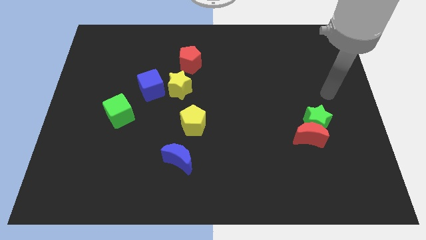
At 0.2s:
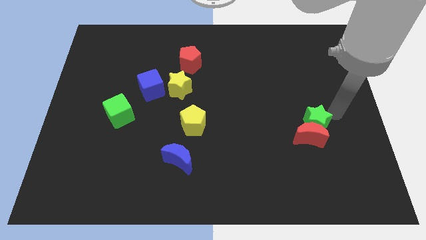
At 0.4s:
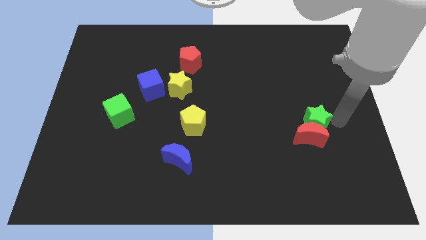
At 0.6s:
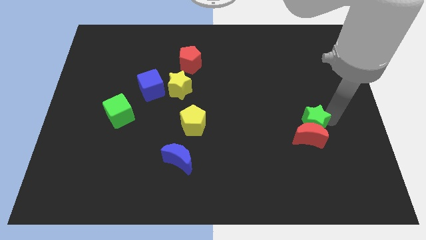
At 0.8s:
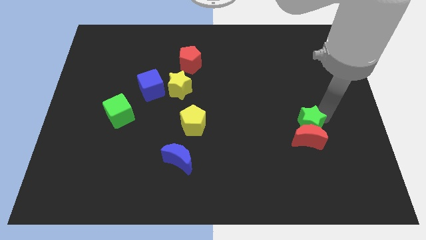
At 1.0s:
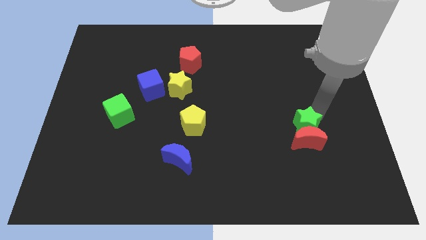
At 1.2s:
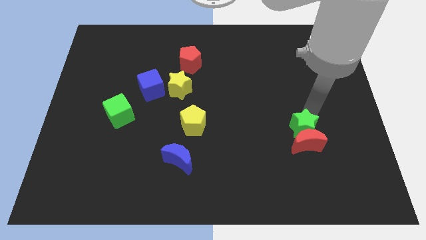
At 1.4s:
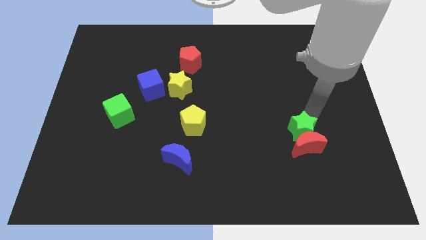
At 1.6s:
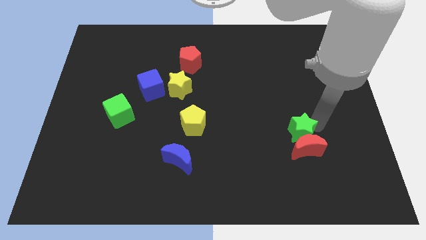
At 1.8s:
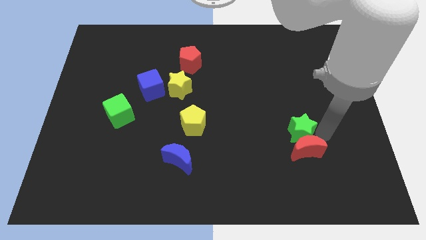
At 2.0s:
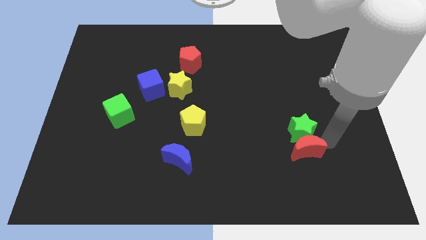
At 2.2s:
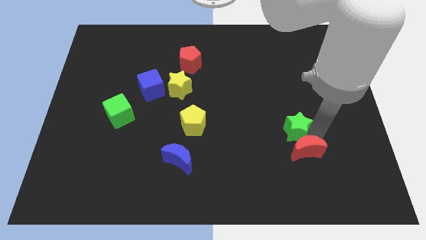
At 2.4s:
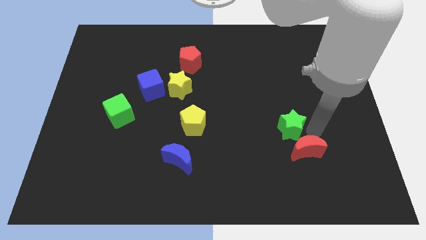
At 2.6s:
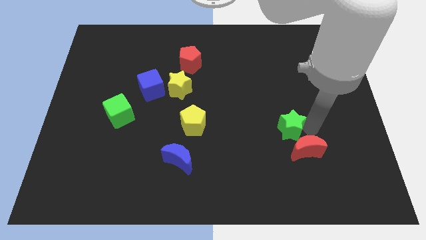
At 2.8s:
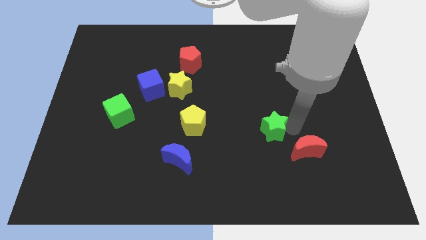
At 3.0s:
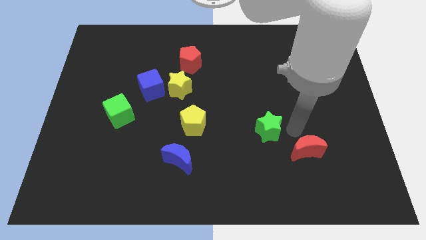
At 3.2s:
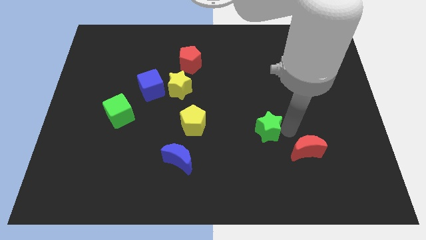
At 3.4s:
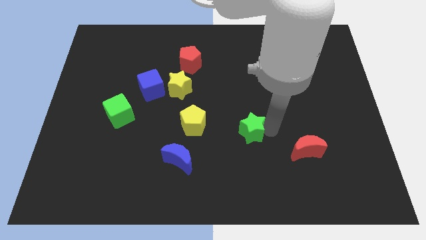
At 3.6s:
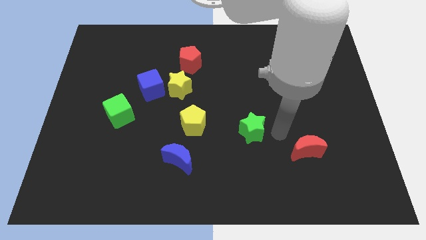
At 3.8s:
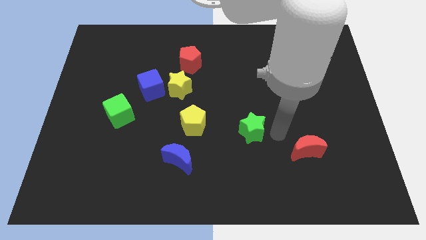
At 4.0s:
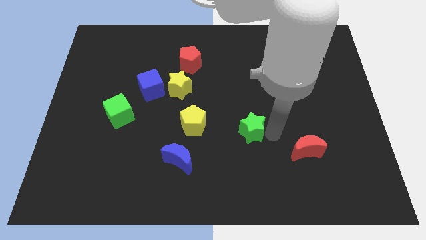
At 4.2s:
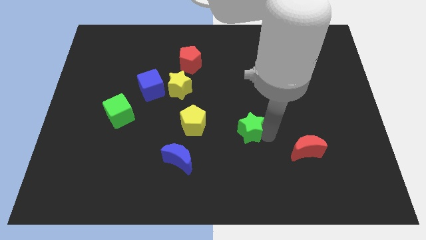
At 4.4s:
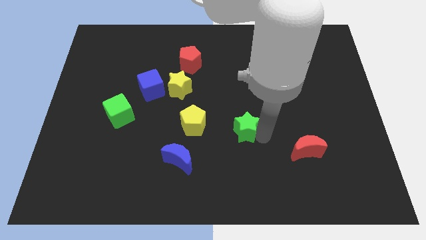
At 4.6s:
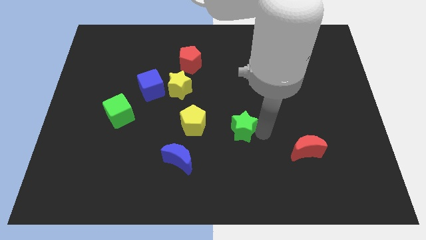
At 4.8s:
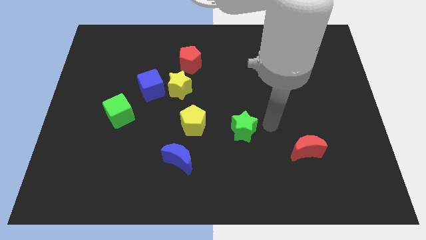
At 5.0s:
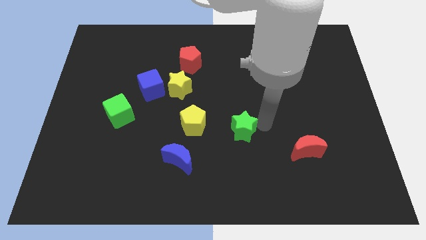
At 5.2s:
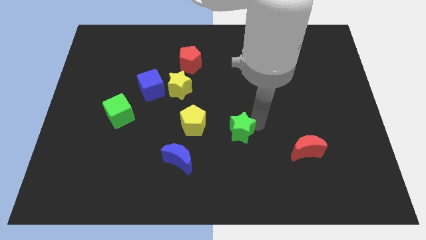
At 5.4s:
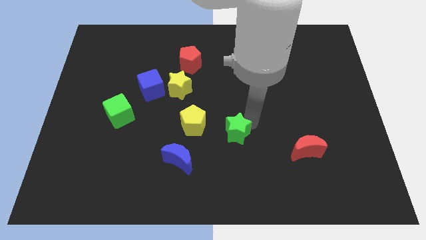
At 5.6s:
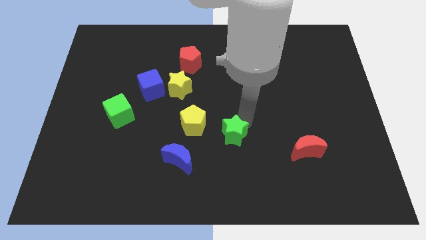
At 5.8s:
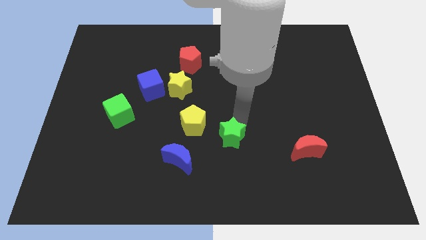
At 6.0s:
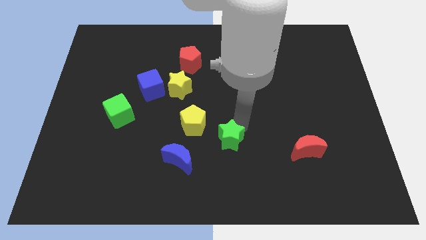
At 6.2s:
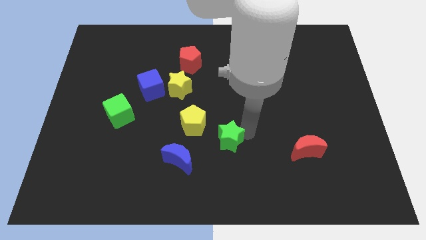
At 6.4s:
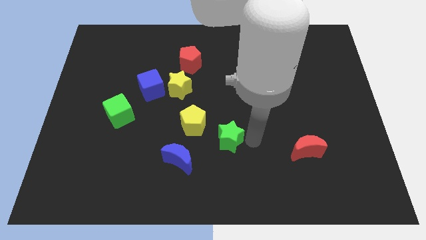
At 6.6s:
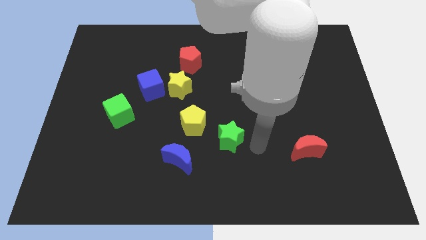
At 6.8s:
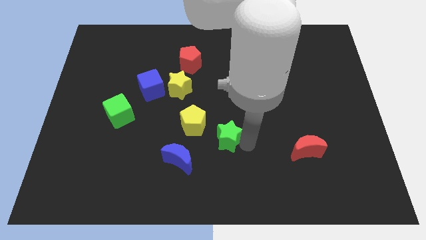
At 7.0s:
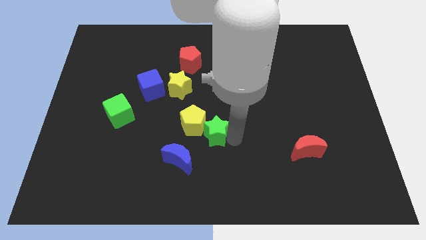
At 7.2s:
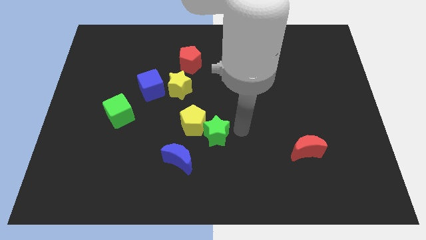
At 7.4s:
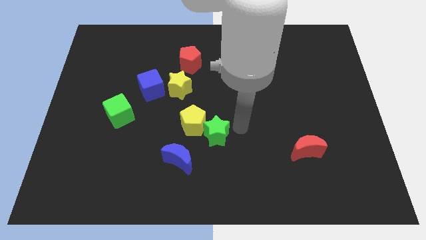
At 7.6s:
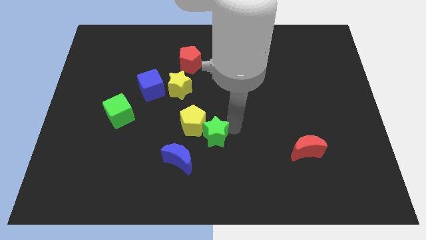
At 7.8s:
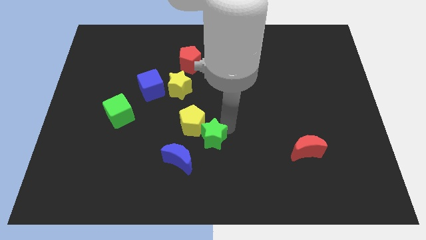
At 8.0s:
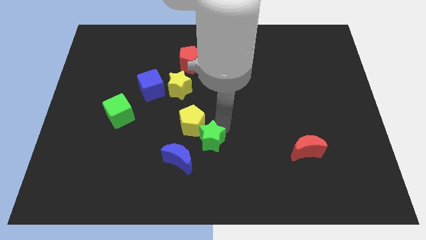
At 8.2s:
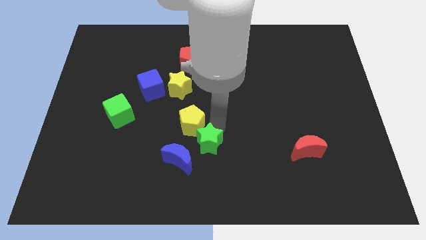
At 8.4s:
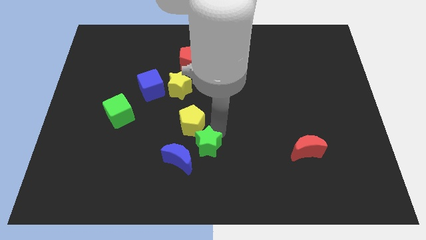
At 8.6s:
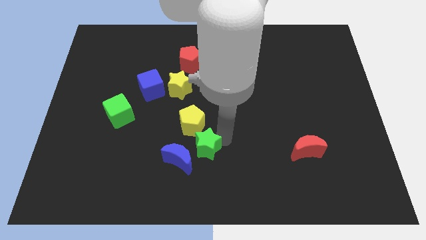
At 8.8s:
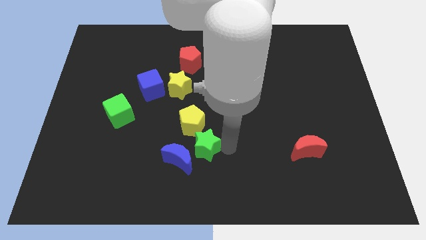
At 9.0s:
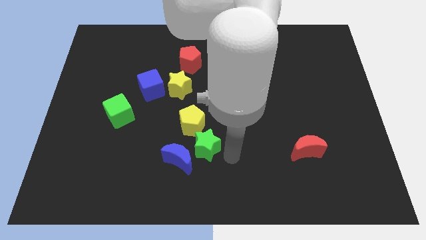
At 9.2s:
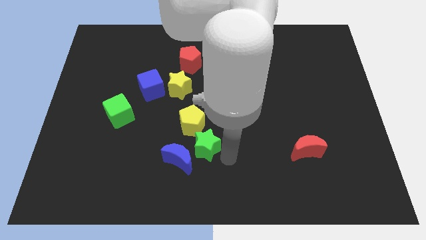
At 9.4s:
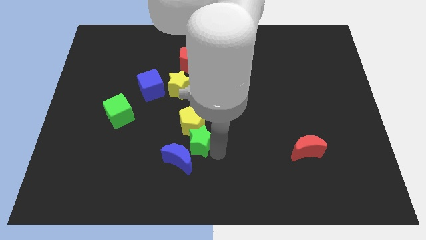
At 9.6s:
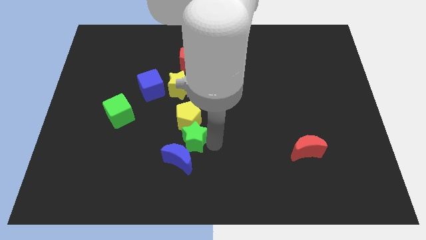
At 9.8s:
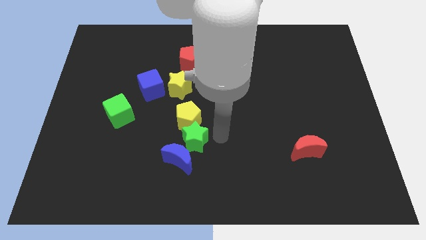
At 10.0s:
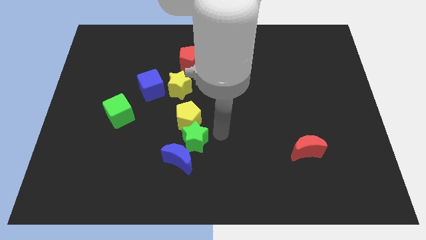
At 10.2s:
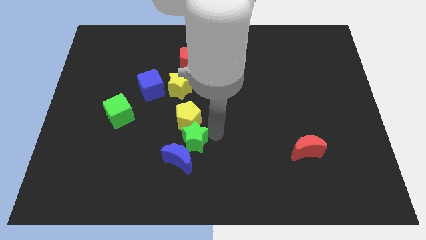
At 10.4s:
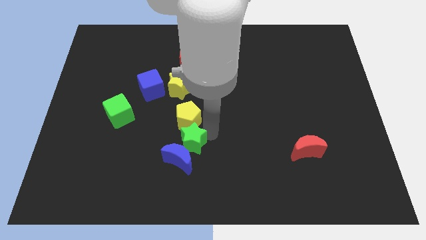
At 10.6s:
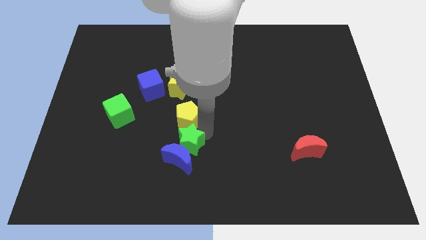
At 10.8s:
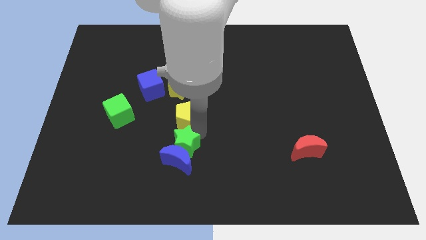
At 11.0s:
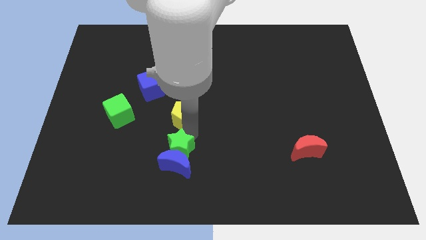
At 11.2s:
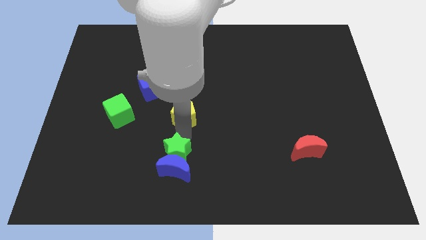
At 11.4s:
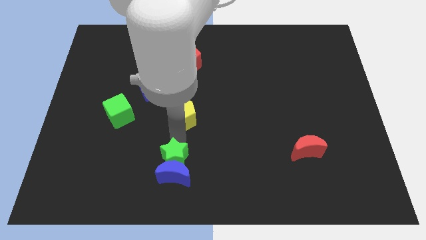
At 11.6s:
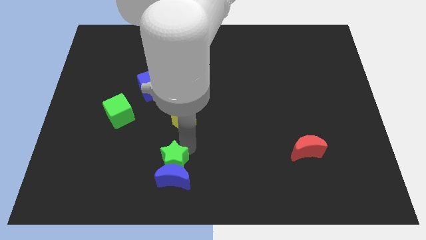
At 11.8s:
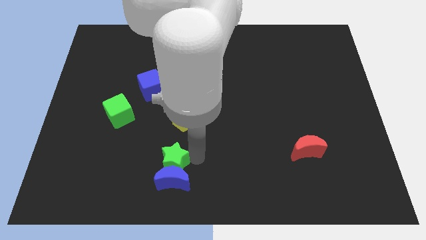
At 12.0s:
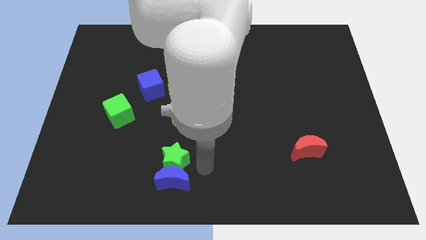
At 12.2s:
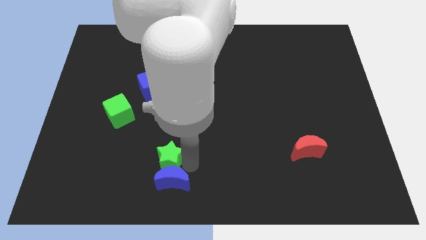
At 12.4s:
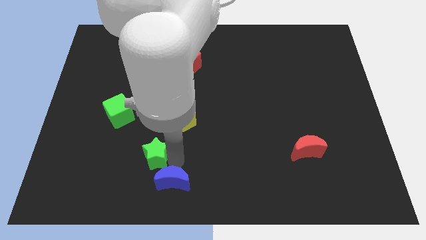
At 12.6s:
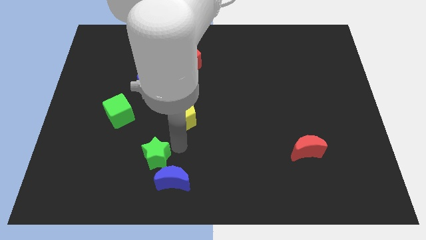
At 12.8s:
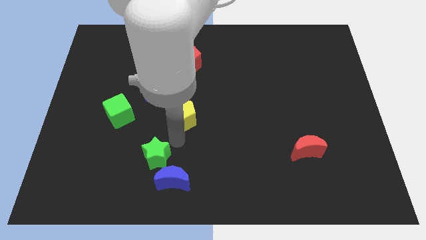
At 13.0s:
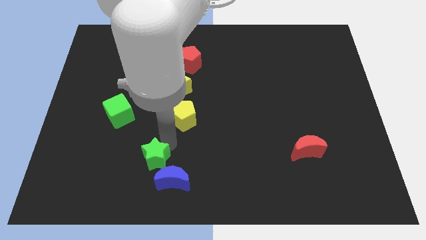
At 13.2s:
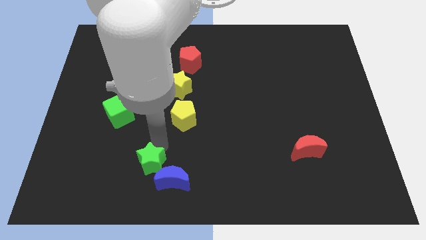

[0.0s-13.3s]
push the green star left of the blue moon

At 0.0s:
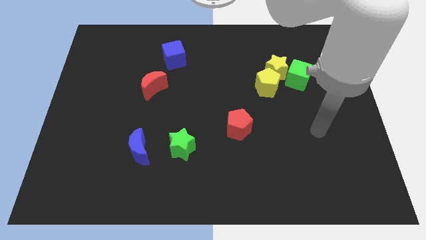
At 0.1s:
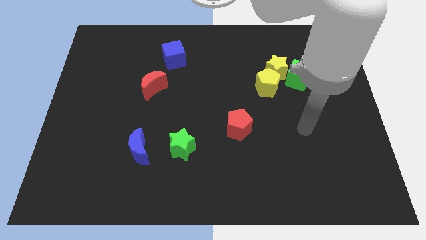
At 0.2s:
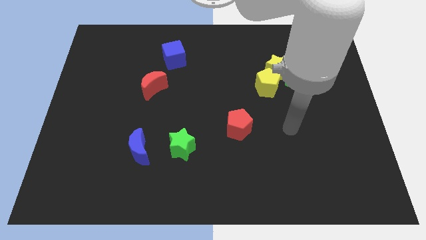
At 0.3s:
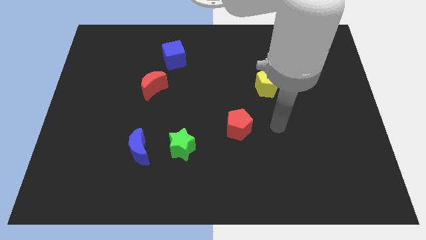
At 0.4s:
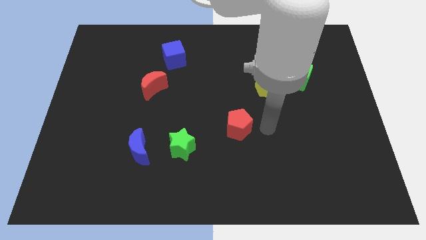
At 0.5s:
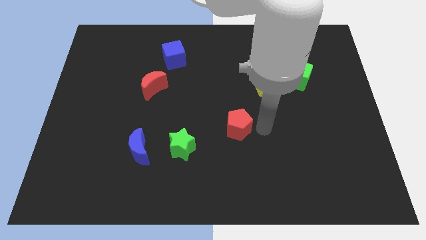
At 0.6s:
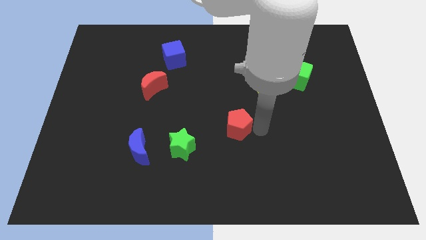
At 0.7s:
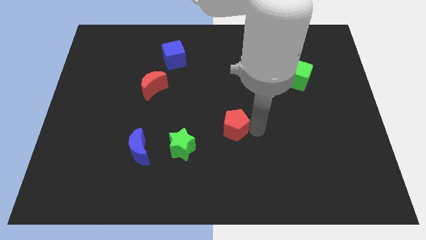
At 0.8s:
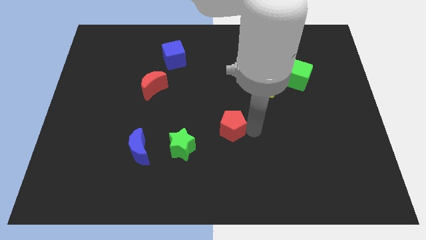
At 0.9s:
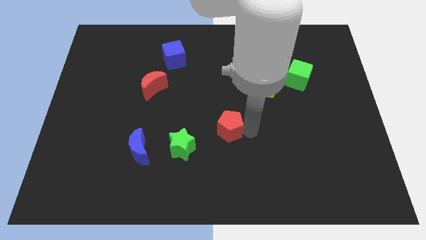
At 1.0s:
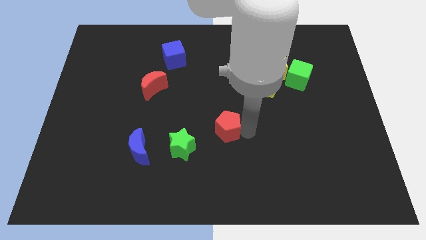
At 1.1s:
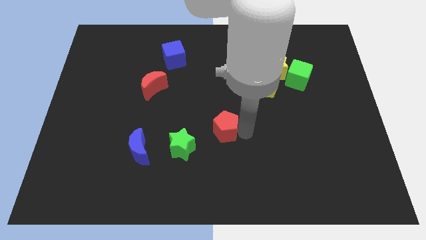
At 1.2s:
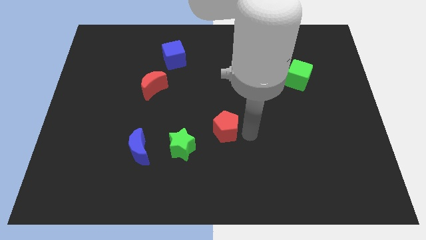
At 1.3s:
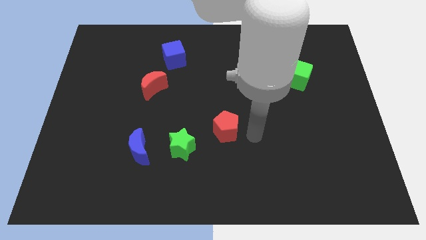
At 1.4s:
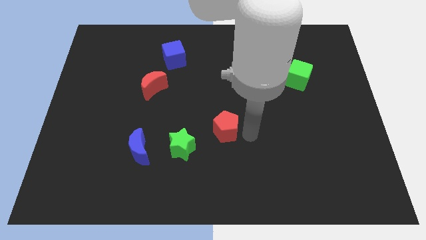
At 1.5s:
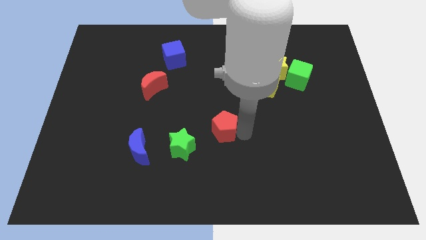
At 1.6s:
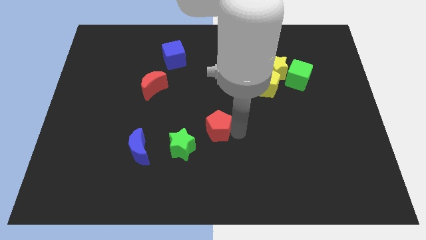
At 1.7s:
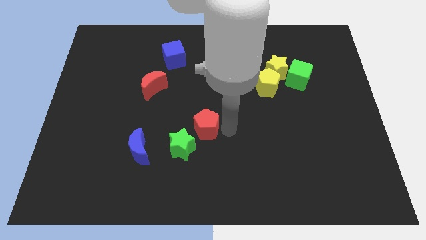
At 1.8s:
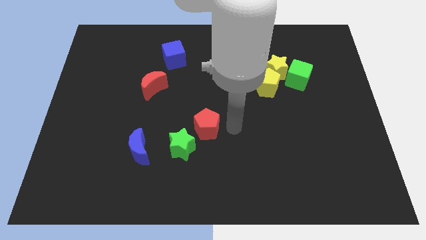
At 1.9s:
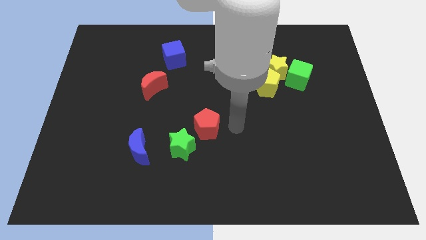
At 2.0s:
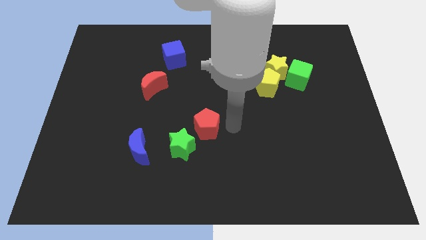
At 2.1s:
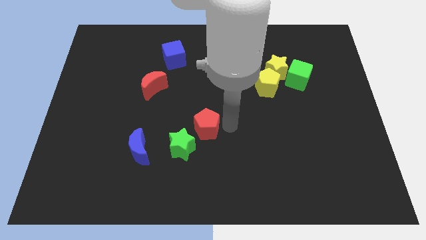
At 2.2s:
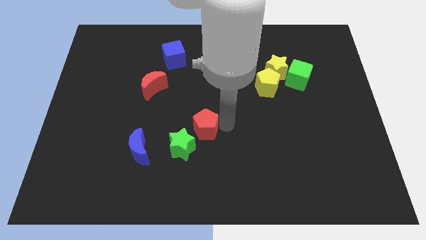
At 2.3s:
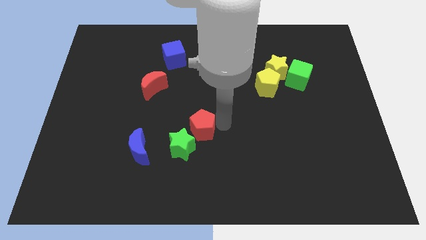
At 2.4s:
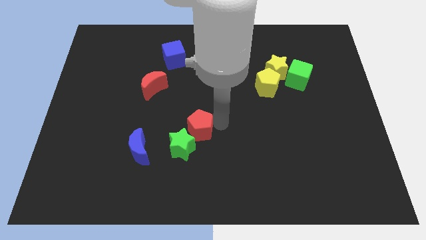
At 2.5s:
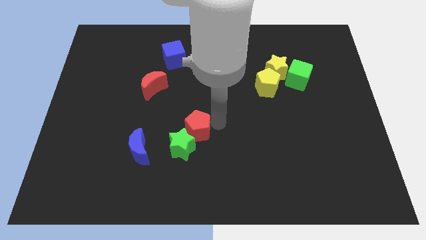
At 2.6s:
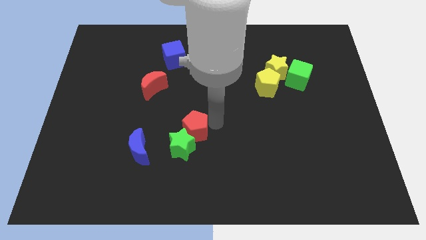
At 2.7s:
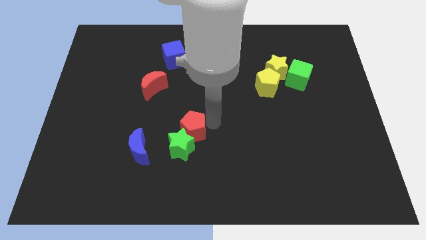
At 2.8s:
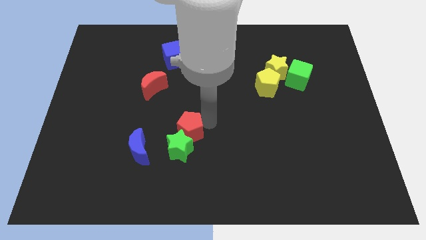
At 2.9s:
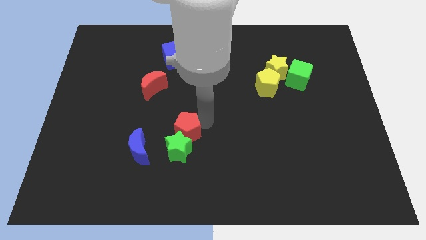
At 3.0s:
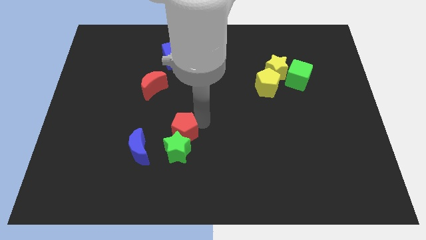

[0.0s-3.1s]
push the red pentagon to the top left side of the green star
